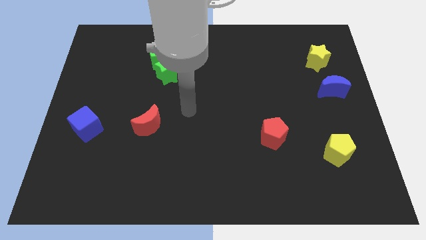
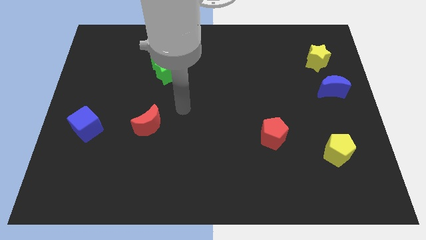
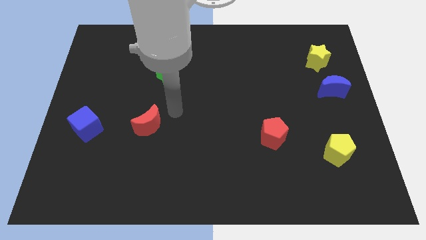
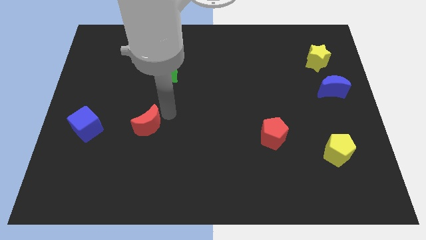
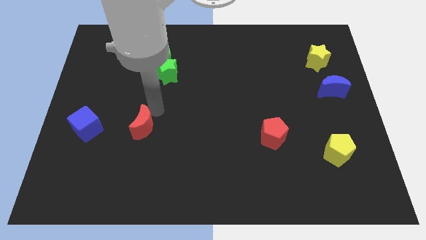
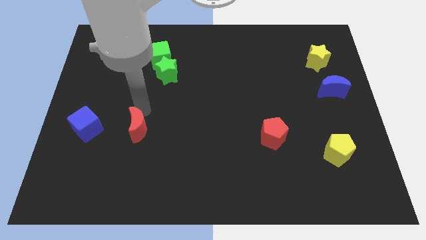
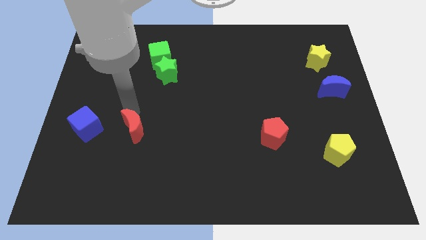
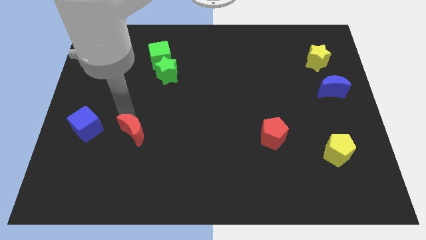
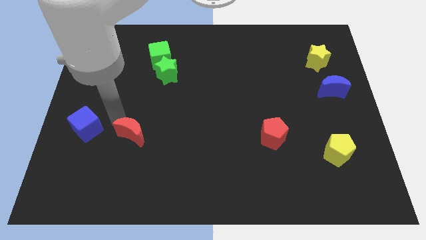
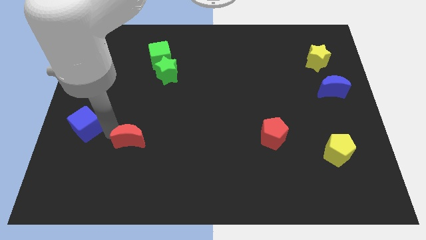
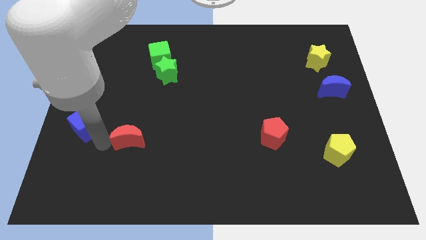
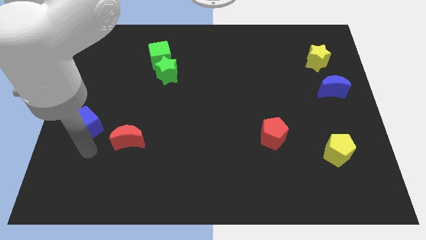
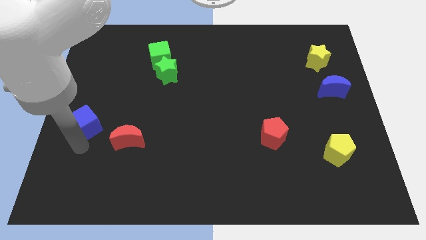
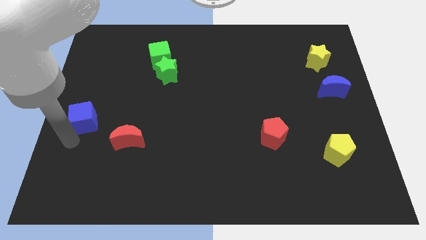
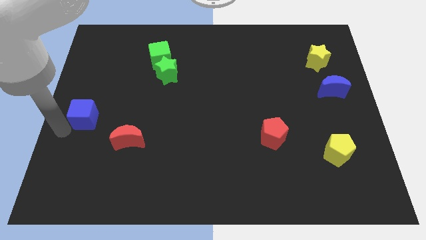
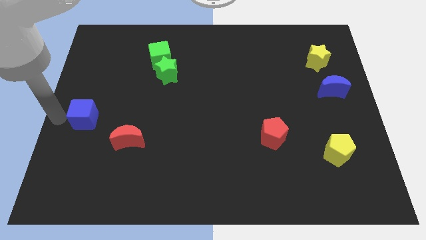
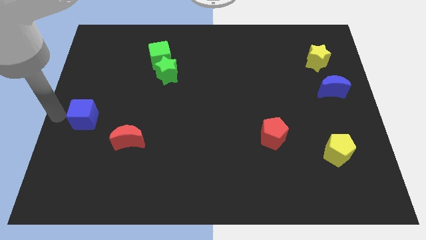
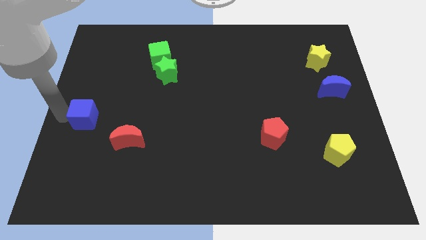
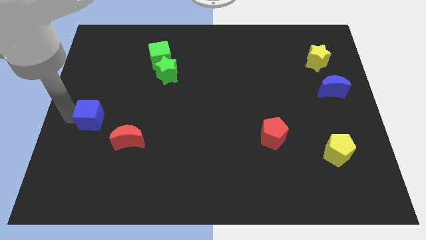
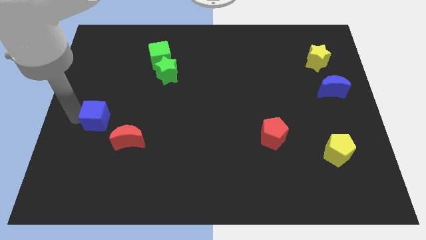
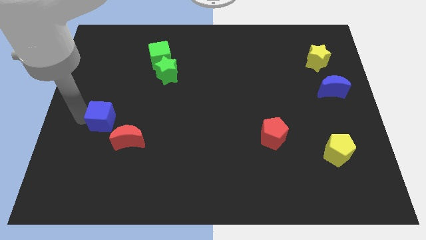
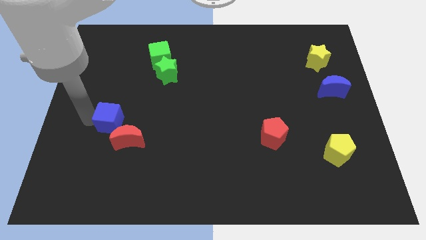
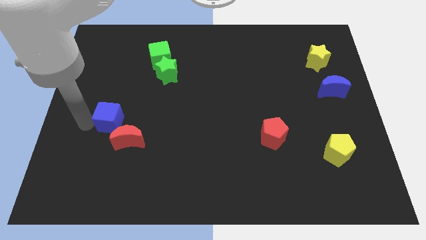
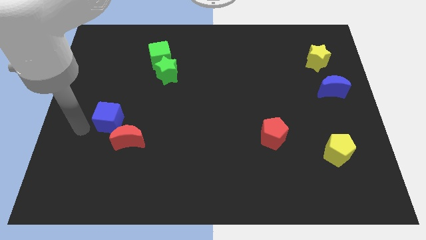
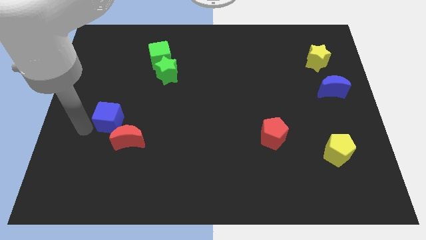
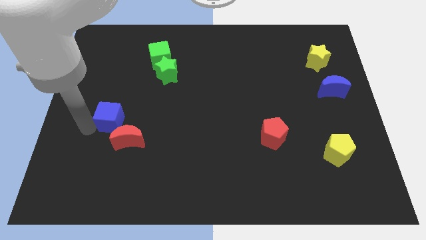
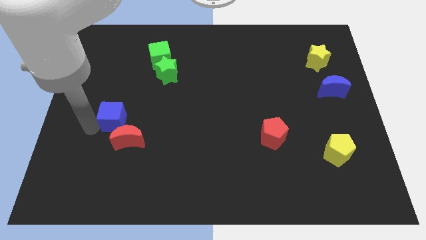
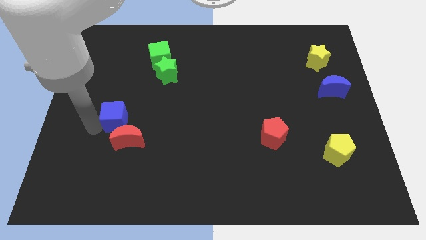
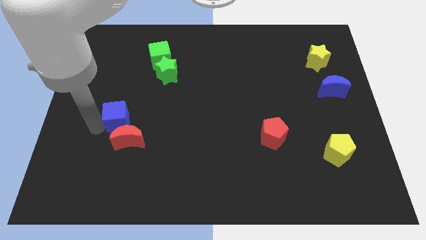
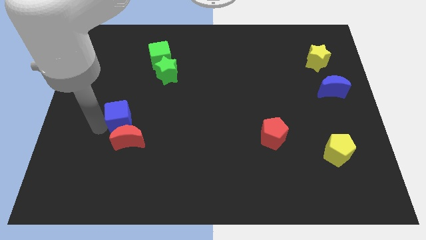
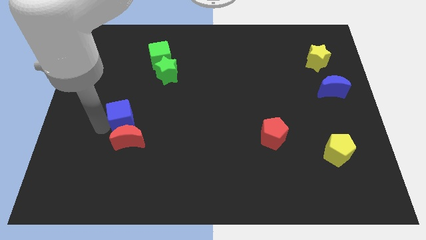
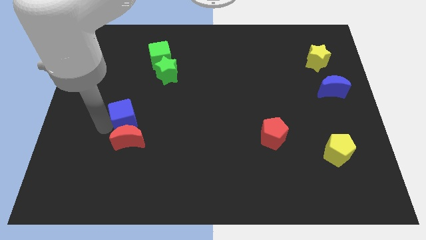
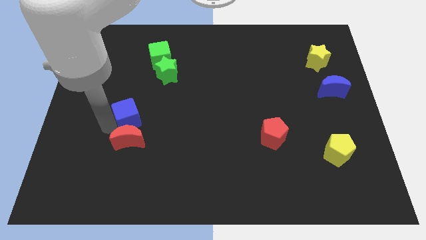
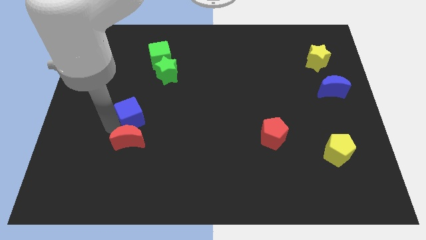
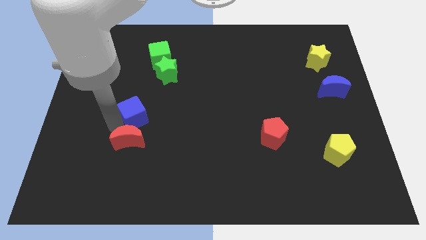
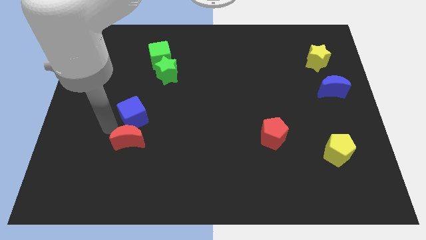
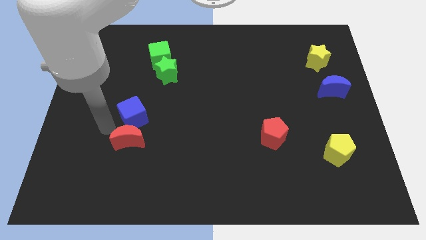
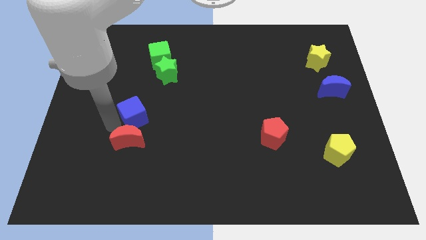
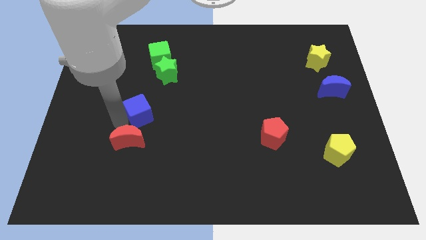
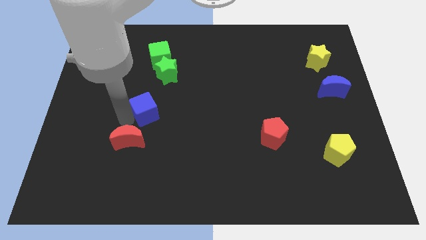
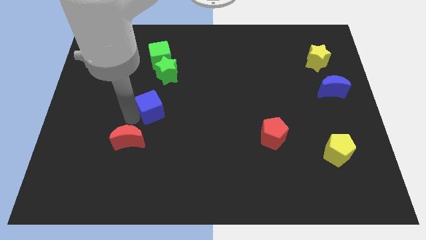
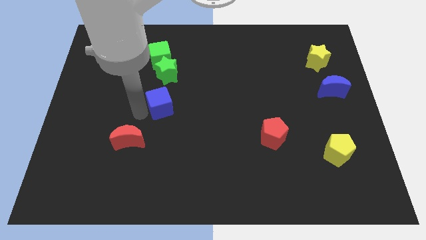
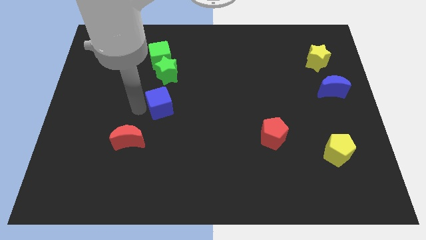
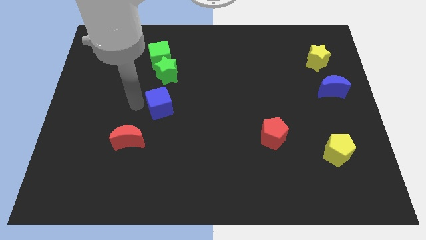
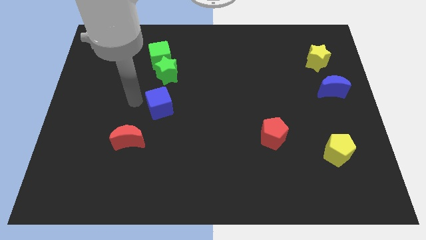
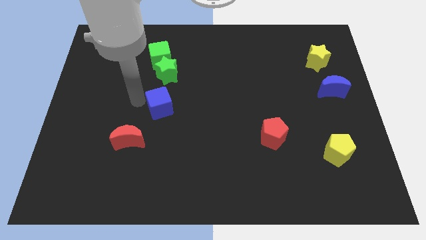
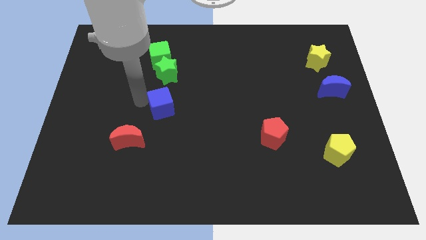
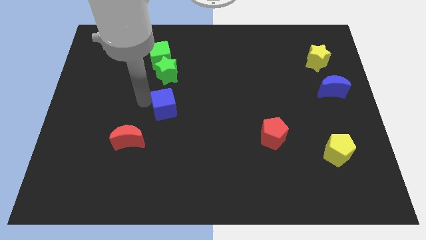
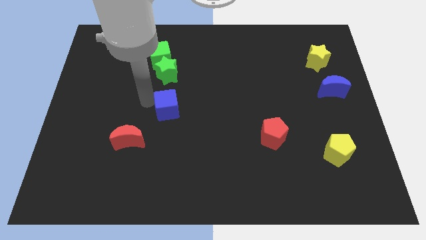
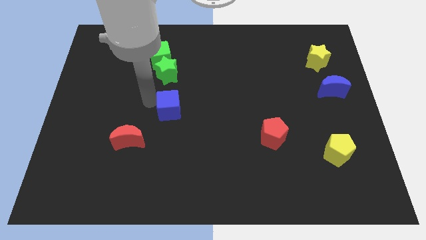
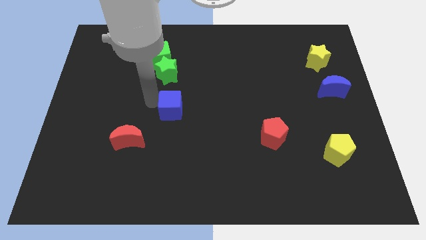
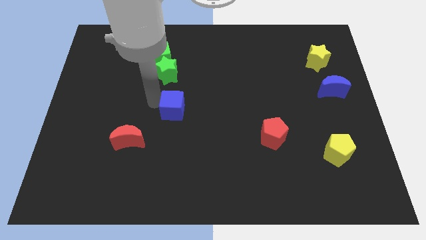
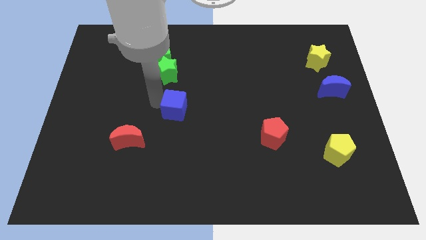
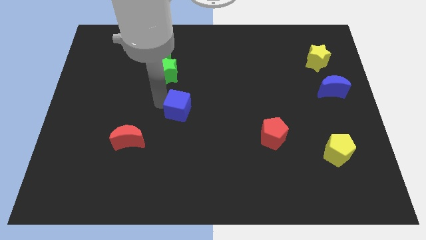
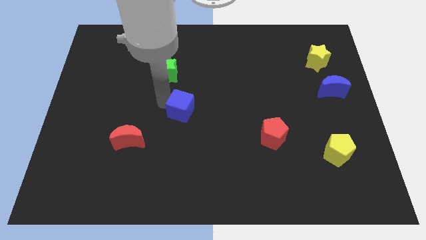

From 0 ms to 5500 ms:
slide the blue cube to the right

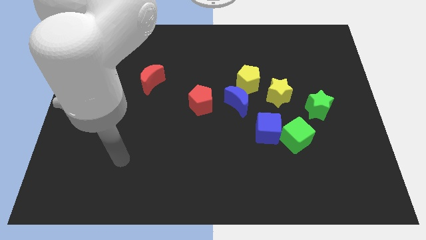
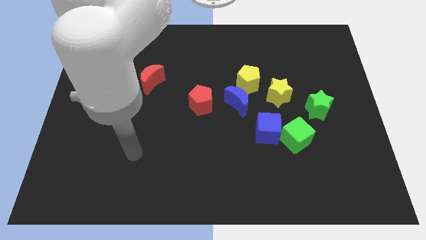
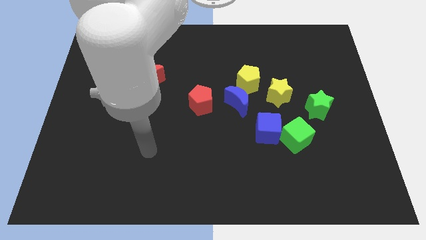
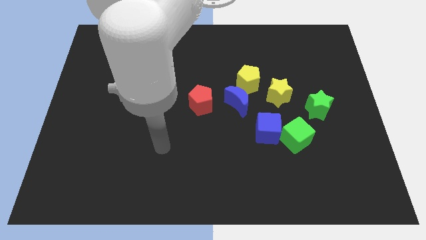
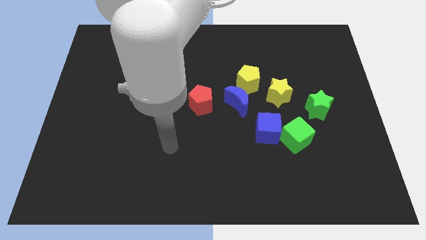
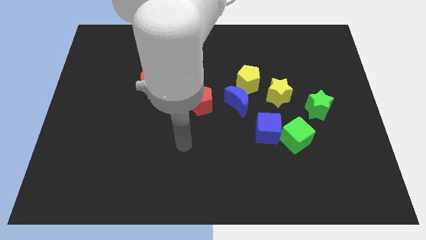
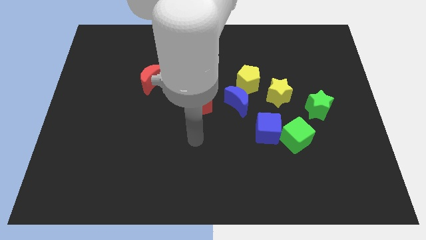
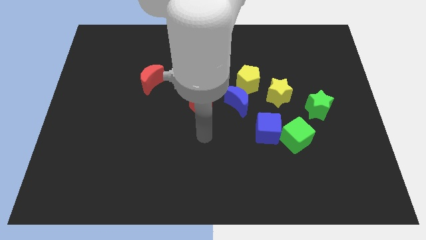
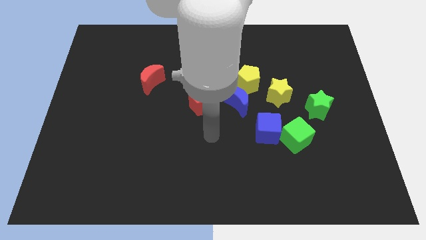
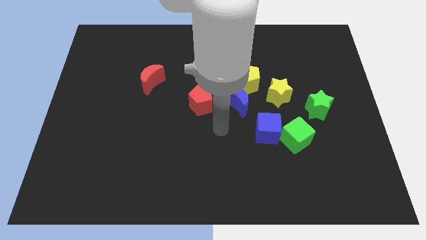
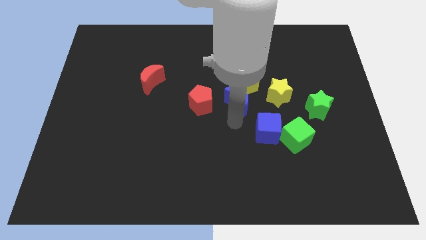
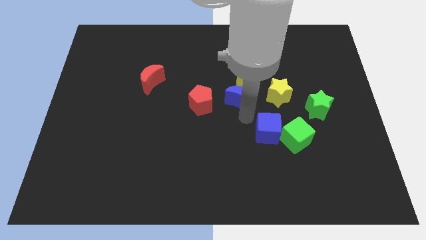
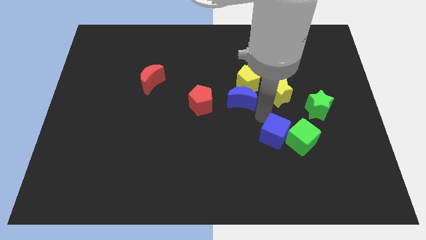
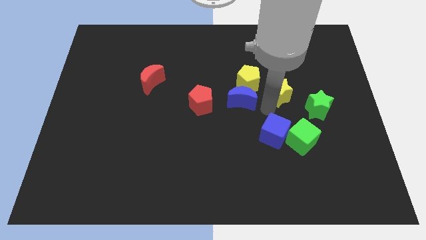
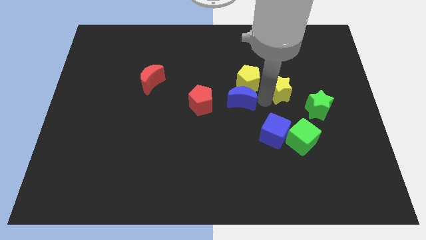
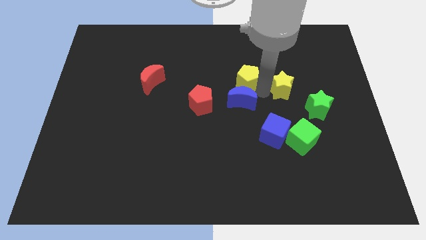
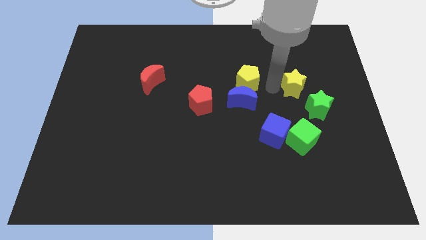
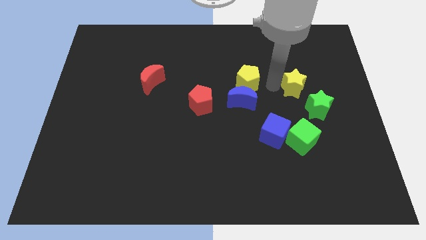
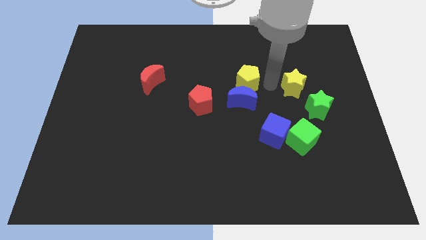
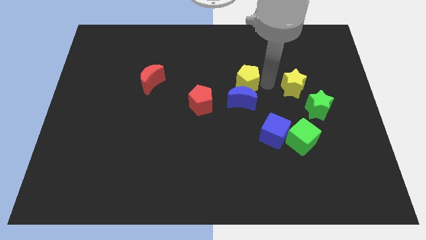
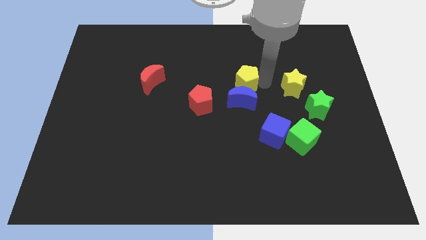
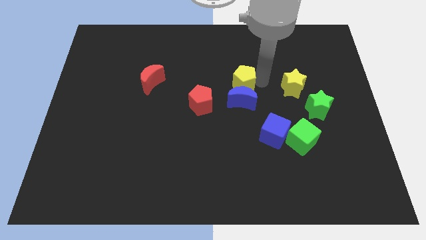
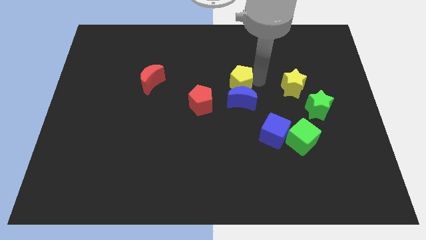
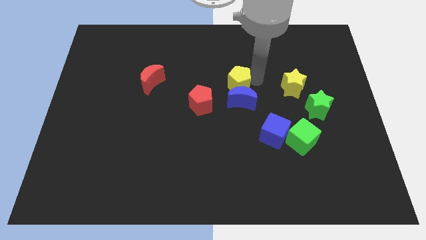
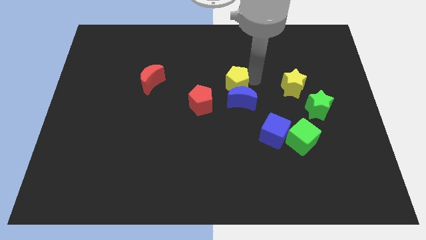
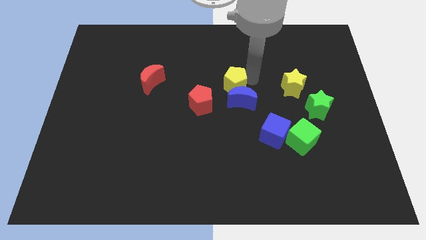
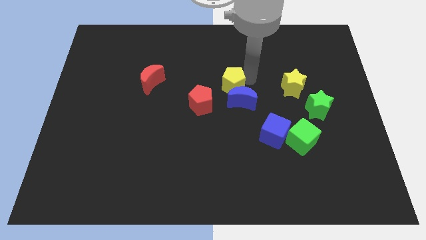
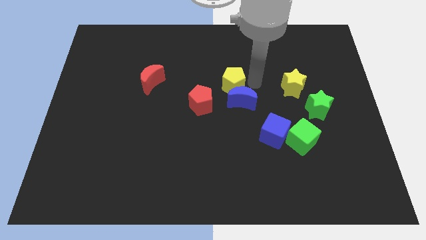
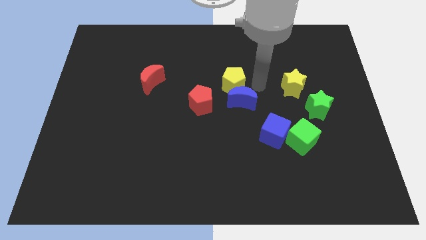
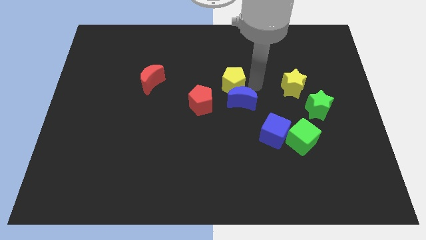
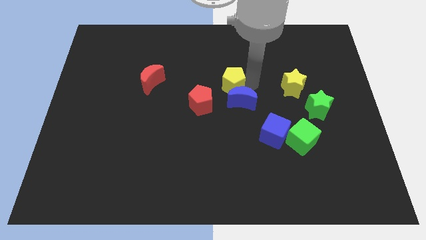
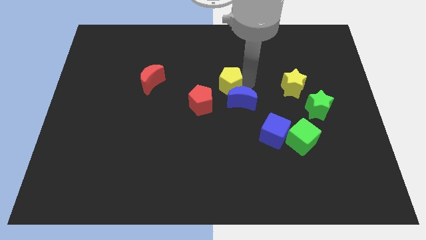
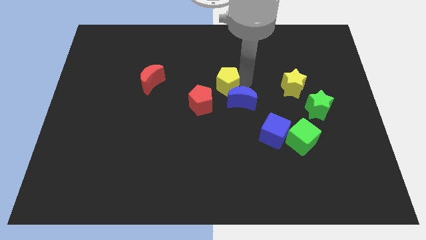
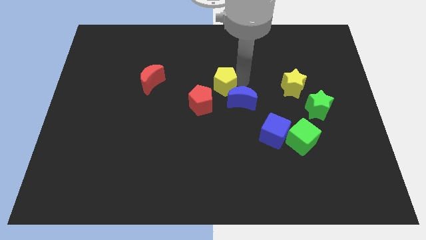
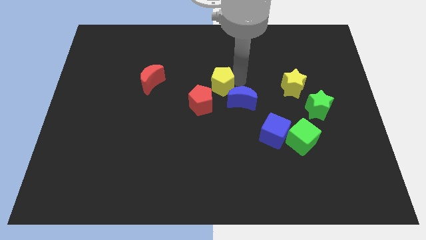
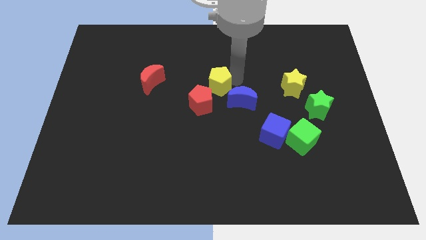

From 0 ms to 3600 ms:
push the yellow pentagon to the left somewhat
